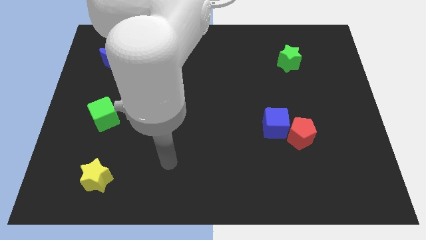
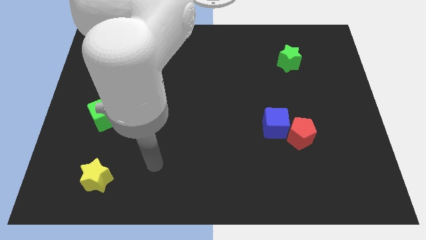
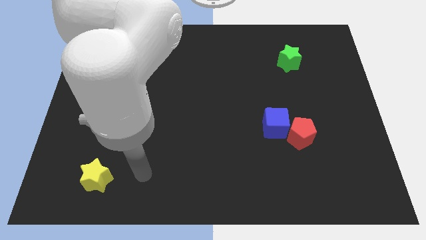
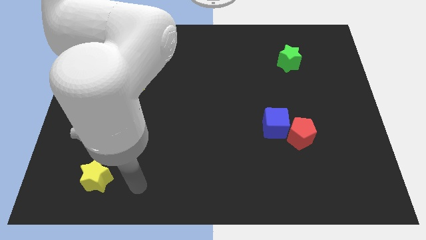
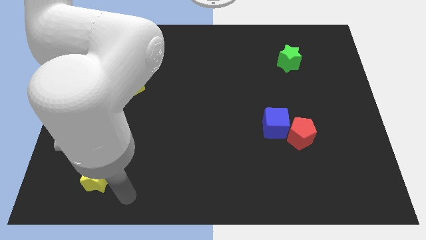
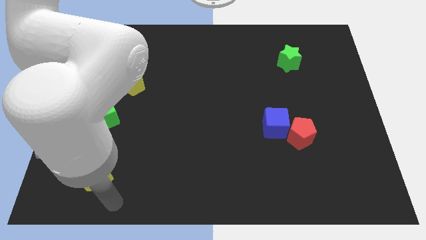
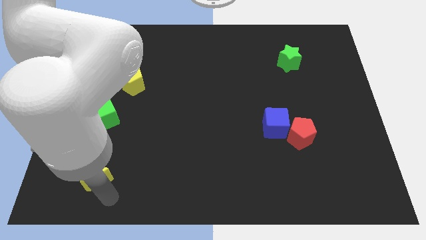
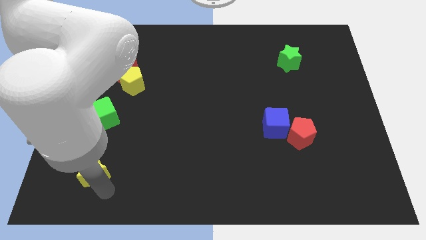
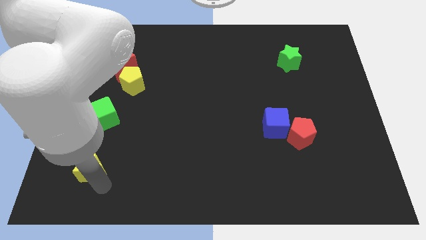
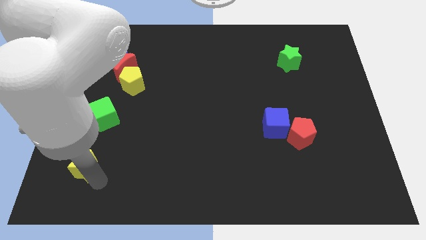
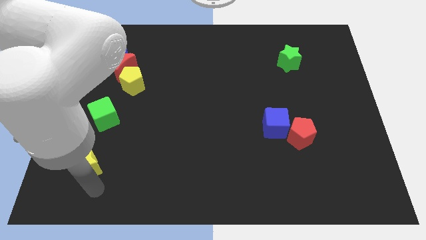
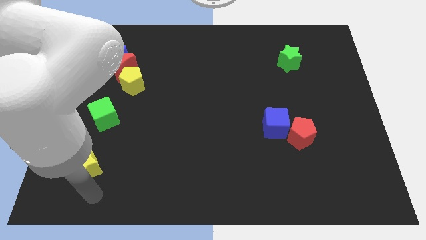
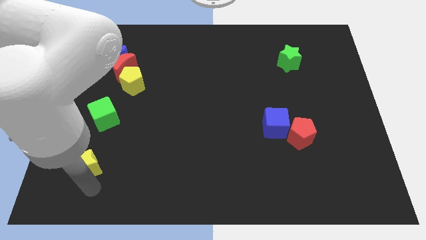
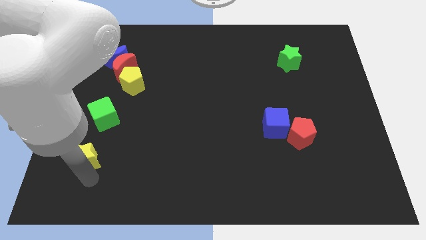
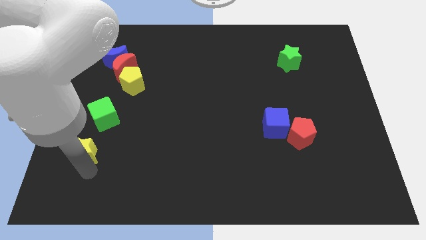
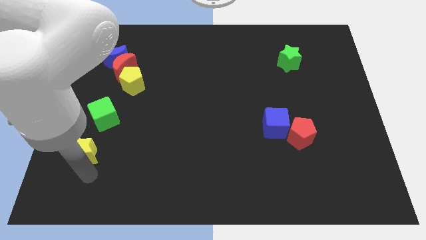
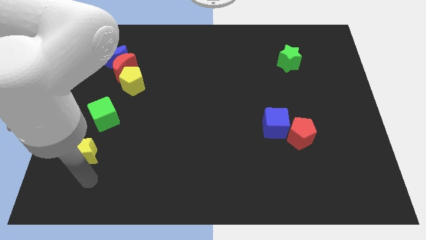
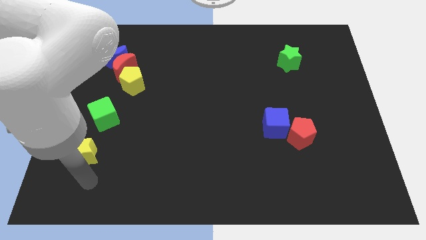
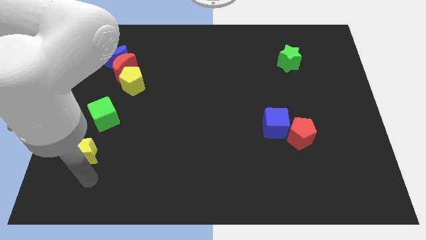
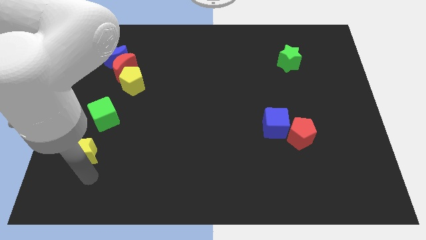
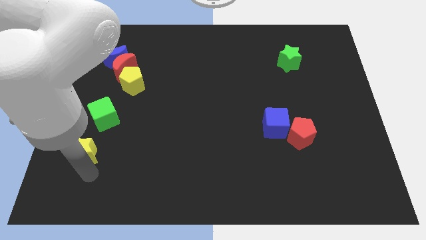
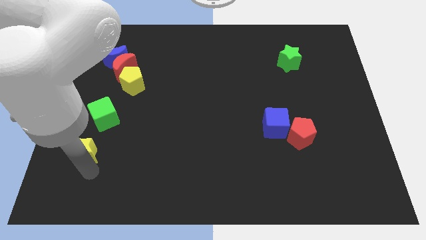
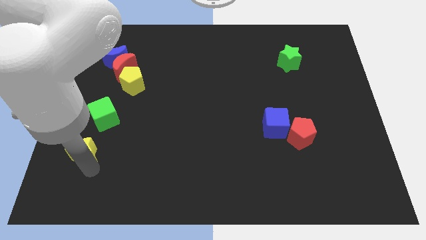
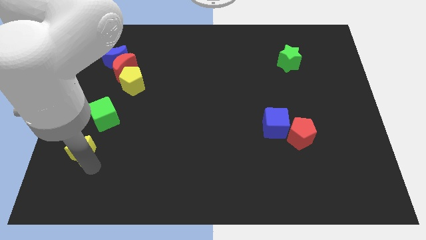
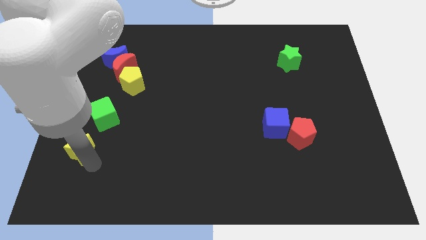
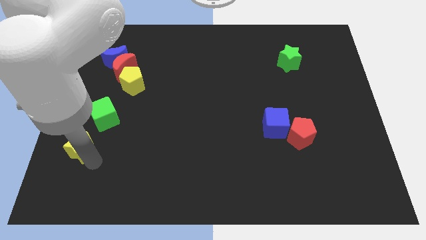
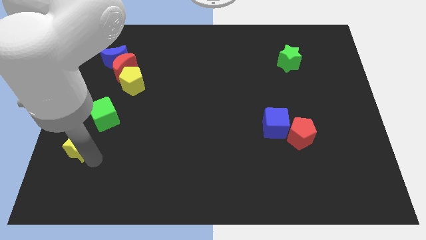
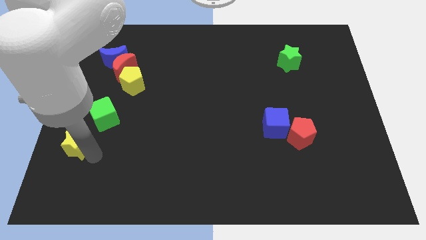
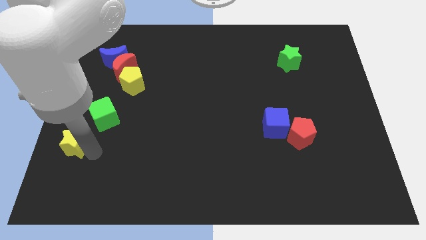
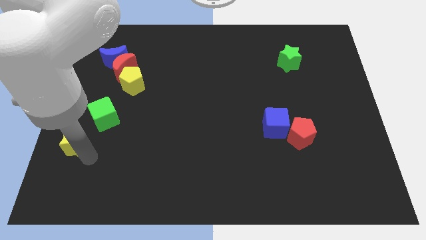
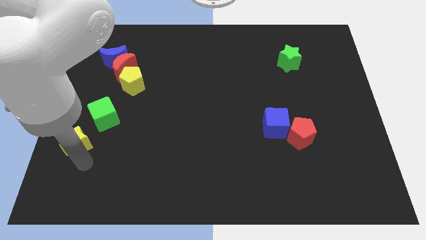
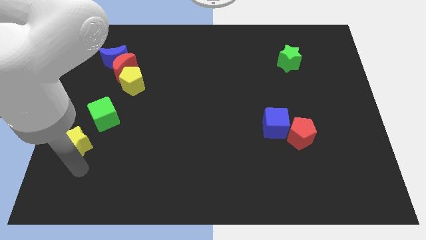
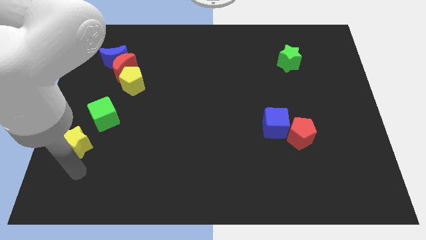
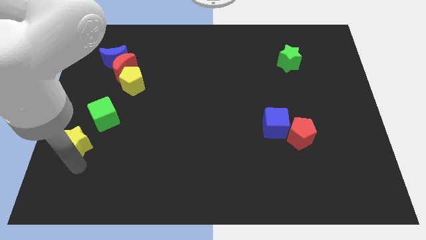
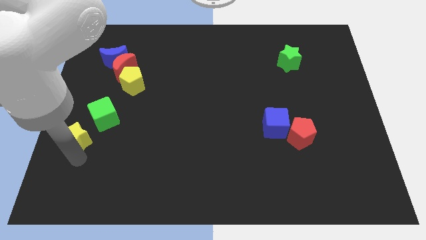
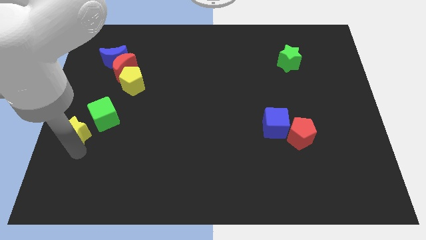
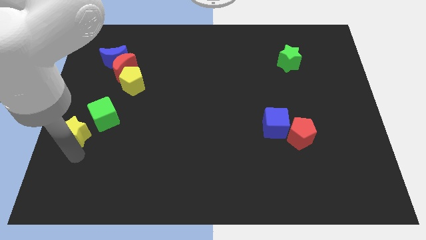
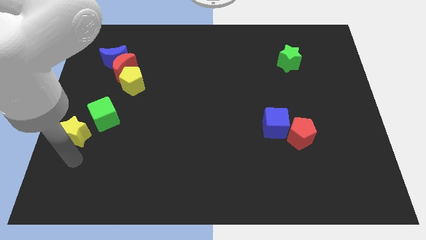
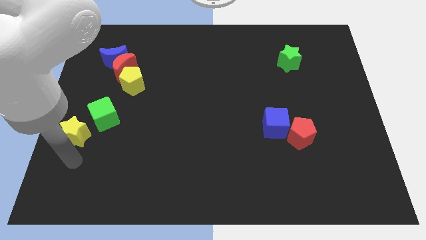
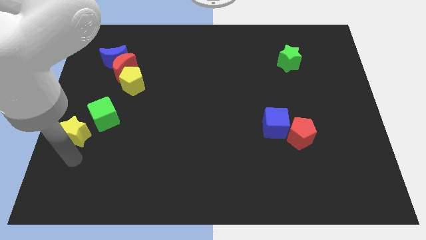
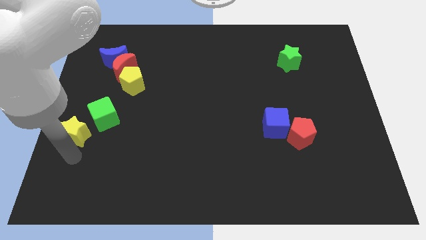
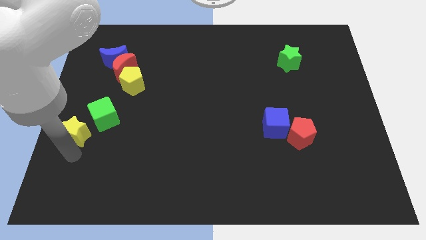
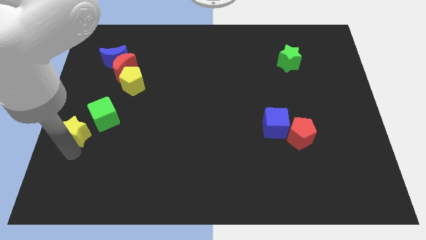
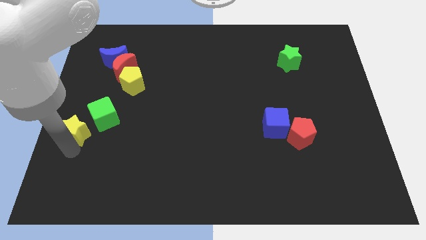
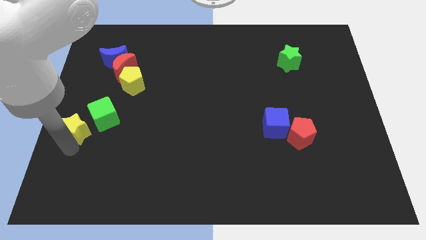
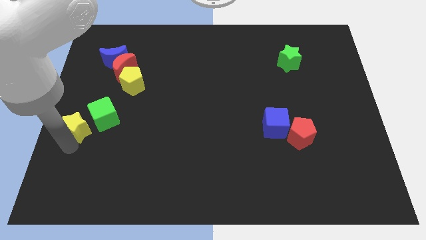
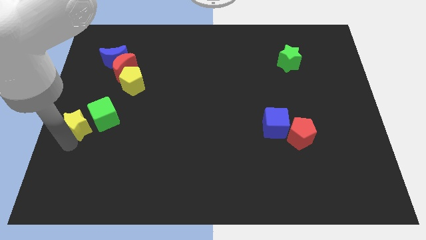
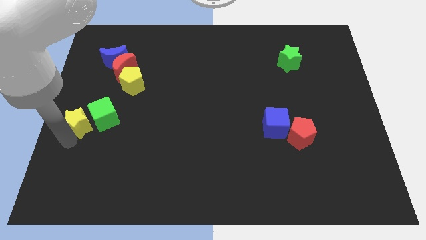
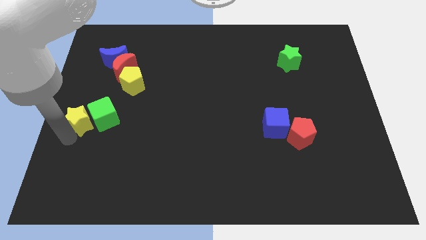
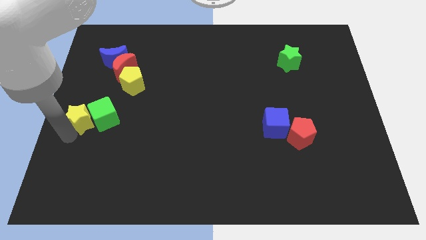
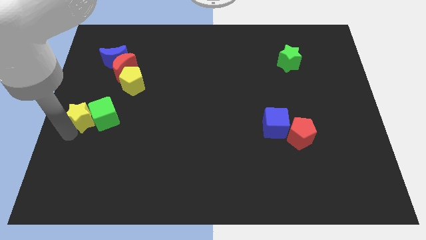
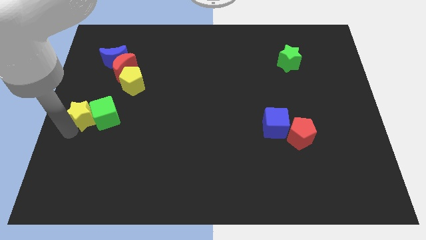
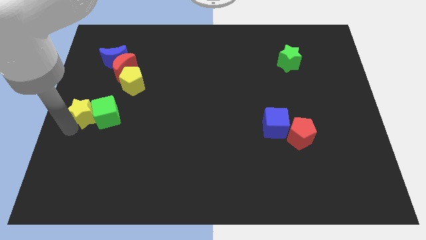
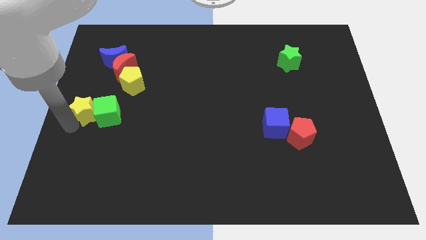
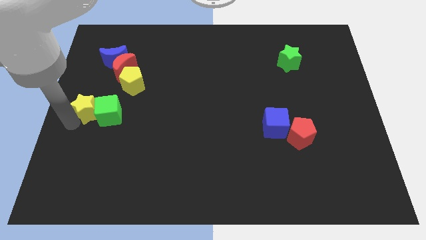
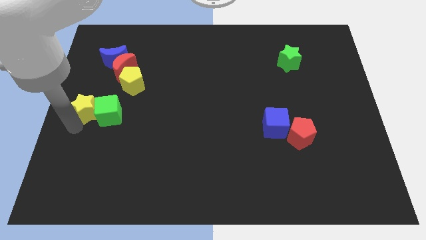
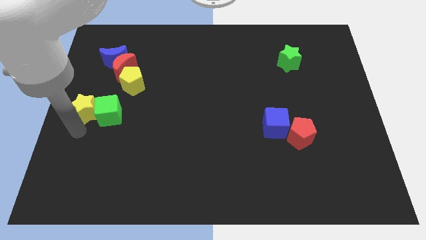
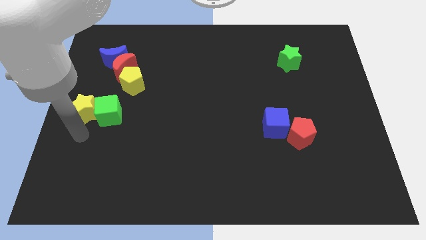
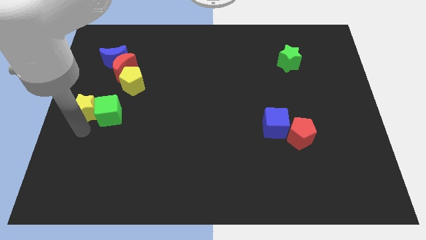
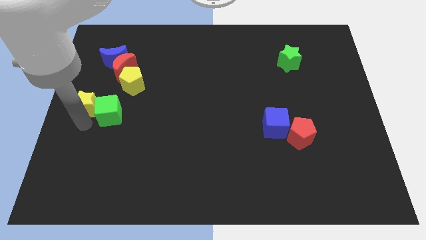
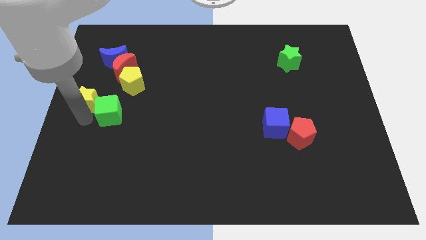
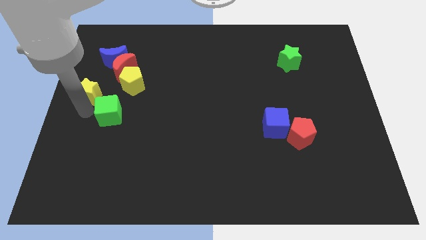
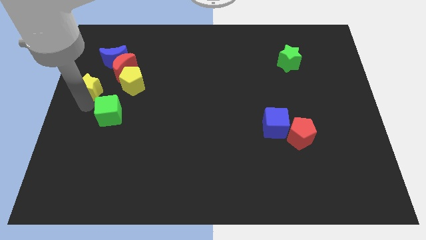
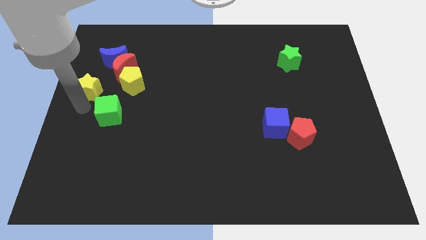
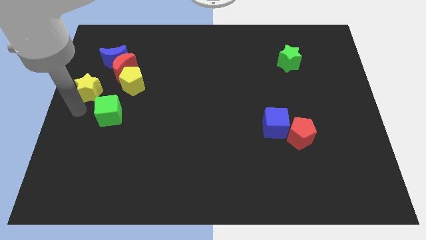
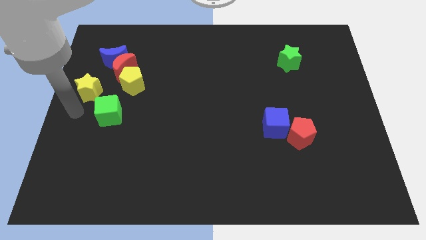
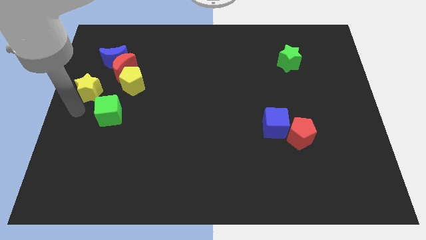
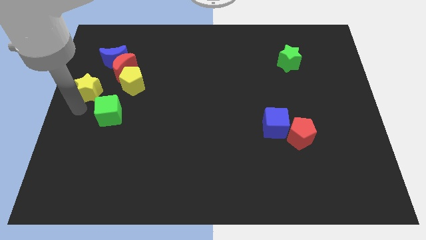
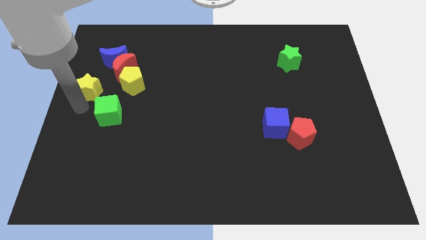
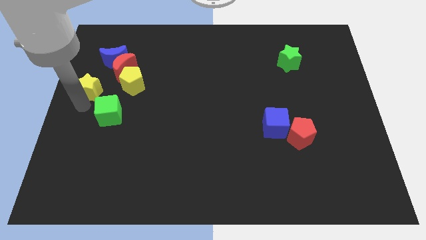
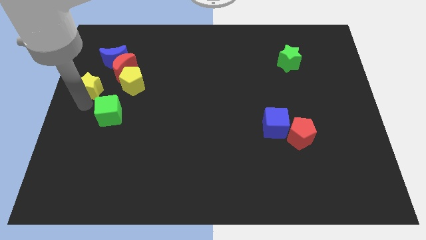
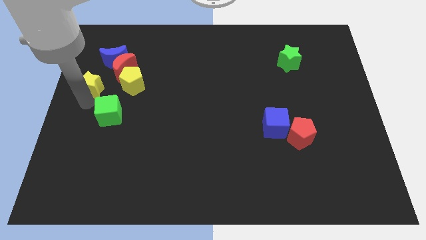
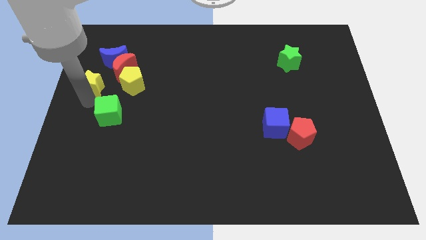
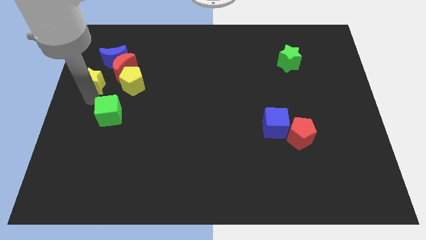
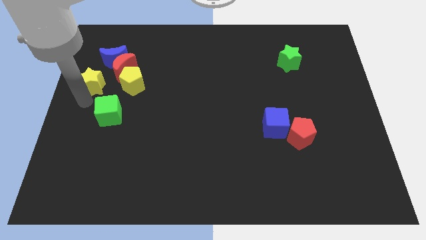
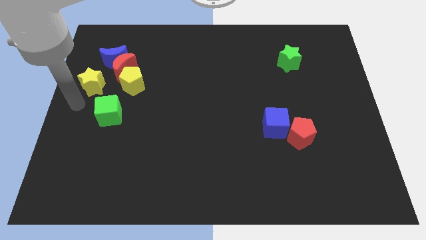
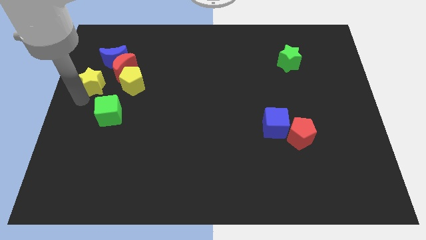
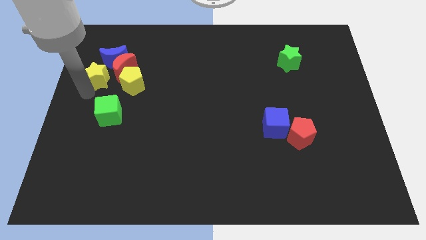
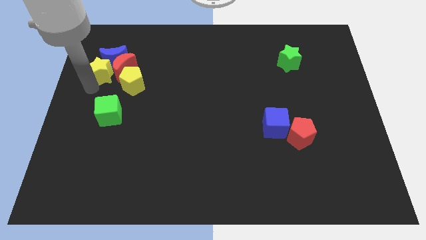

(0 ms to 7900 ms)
move the yellow star next to the blue moon

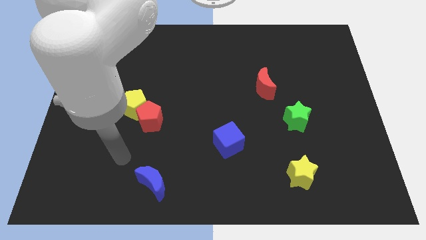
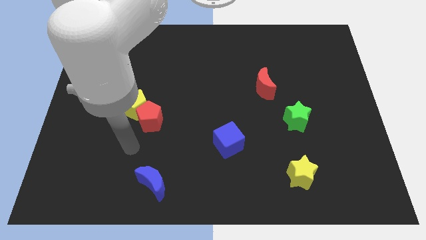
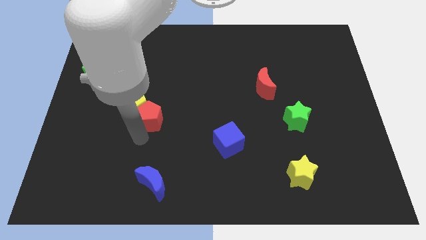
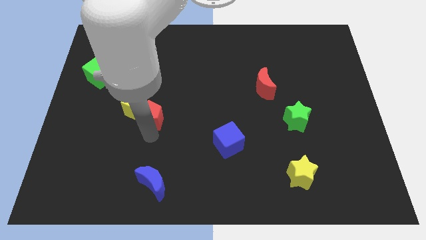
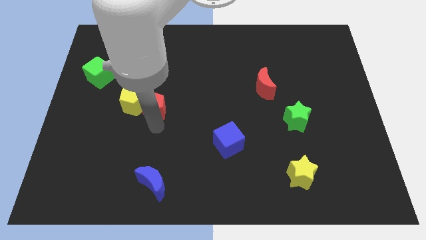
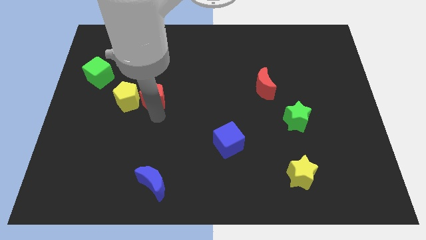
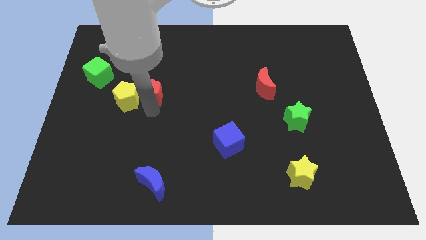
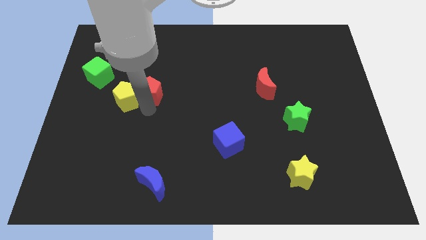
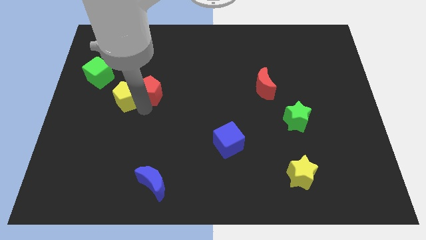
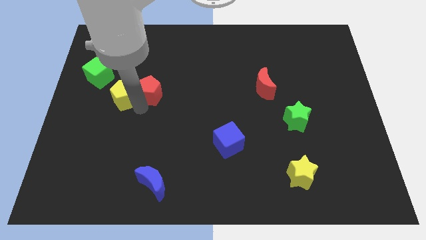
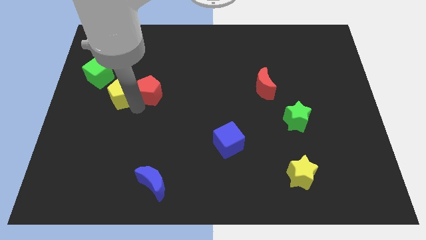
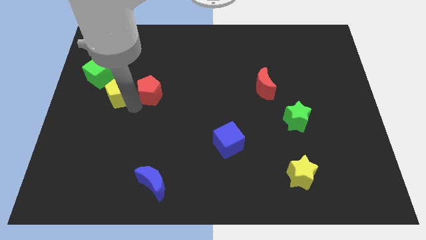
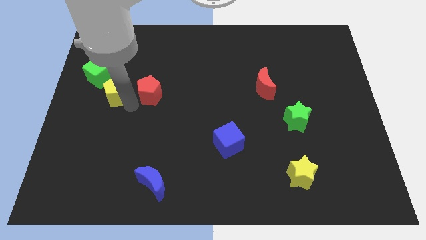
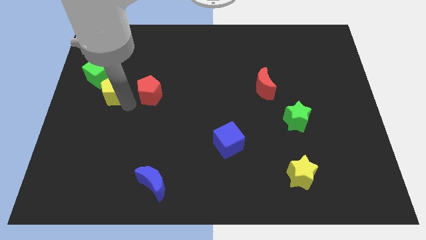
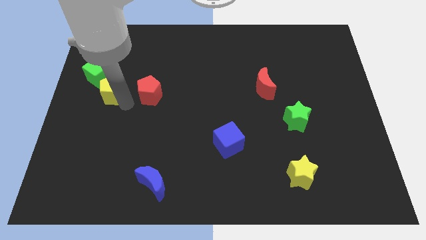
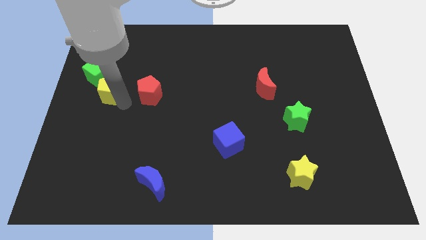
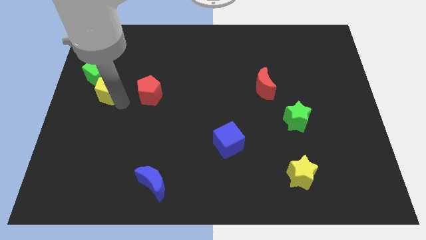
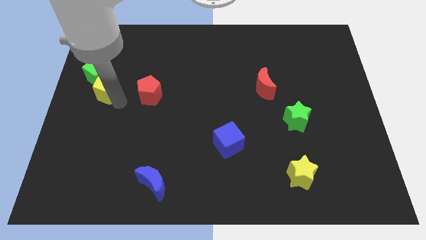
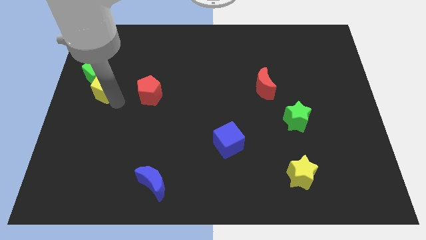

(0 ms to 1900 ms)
move the yellow pentagon to the green cube
